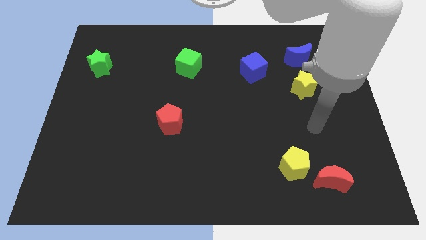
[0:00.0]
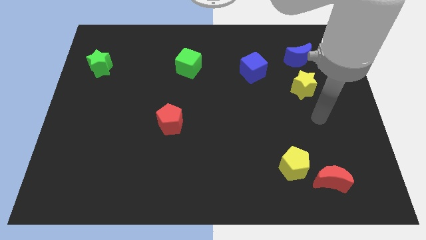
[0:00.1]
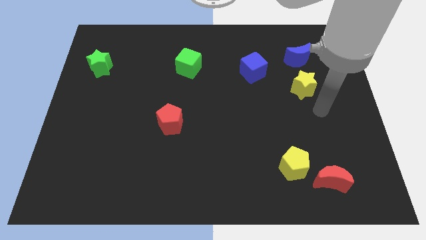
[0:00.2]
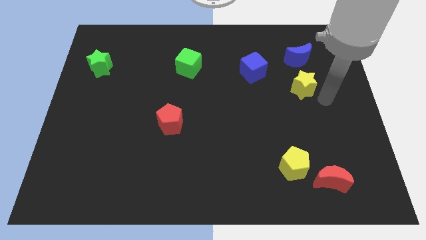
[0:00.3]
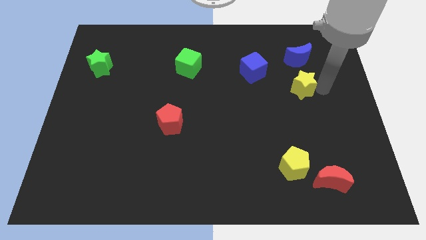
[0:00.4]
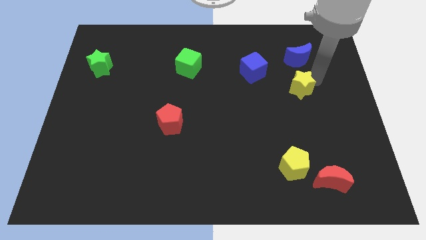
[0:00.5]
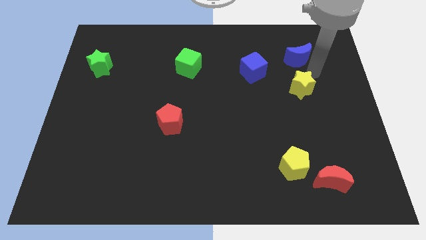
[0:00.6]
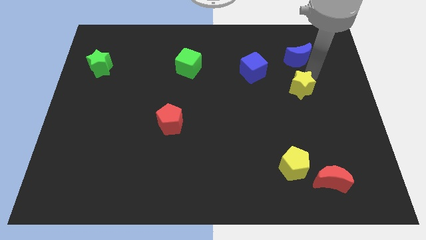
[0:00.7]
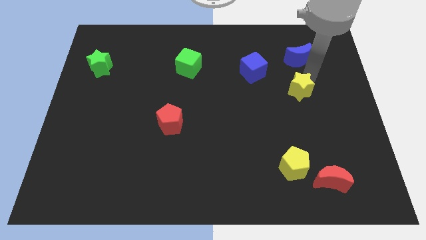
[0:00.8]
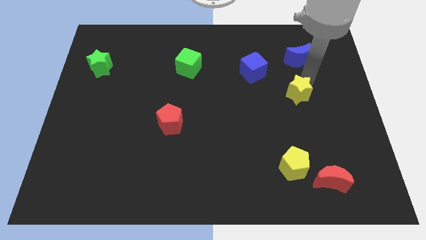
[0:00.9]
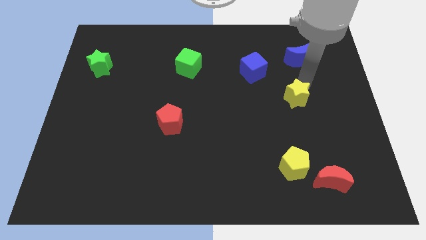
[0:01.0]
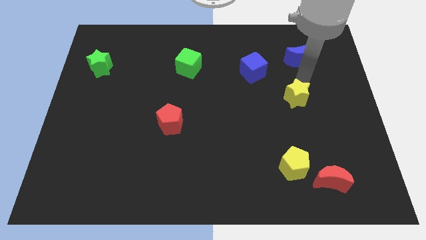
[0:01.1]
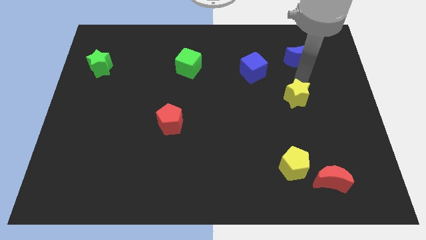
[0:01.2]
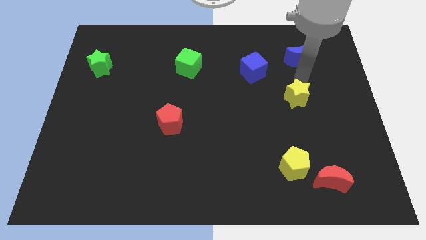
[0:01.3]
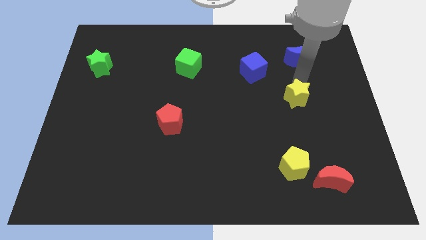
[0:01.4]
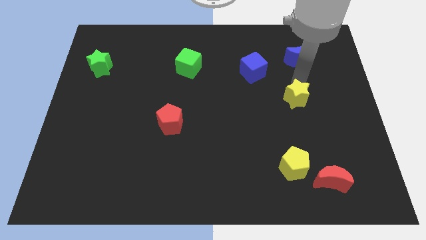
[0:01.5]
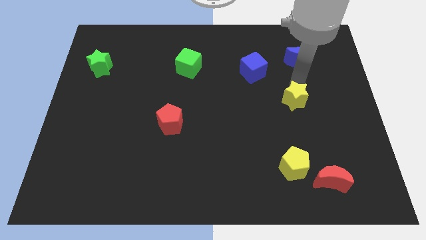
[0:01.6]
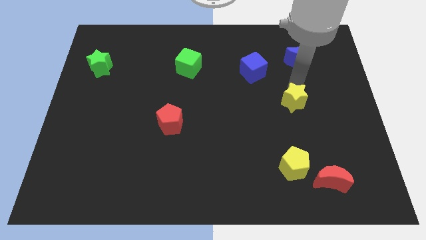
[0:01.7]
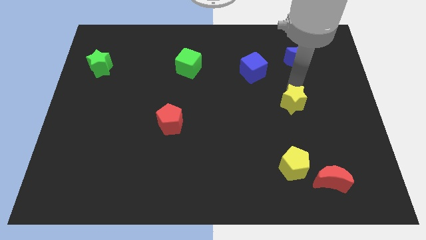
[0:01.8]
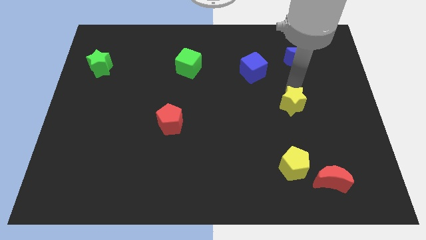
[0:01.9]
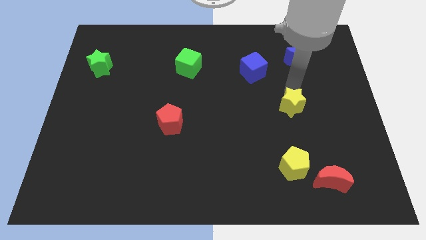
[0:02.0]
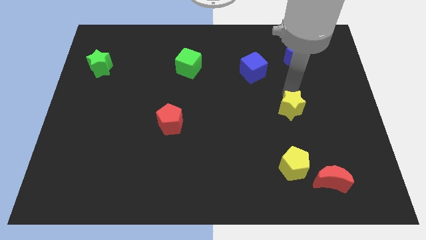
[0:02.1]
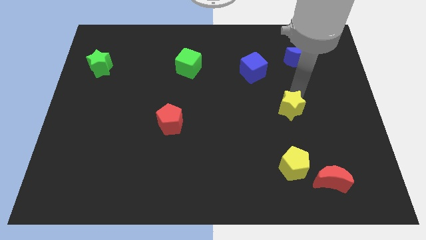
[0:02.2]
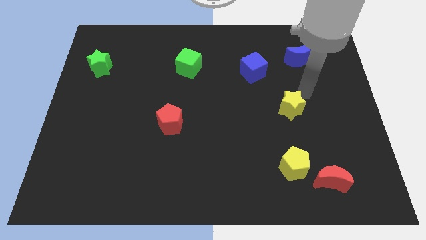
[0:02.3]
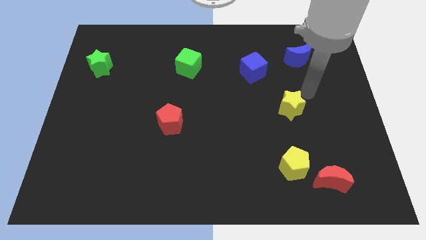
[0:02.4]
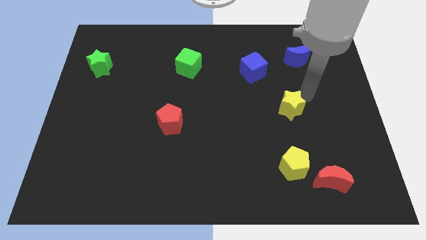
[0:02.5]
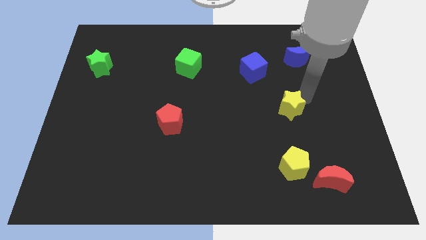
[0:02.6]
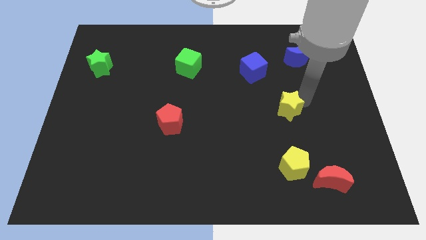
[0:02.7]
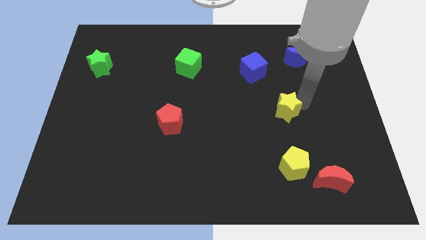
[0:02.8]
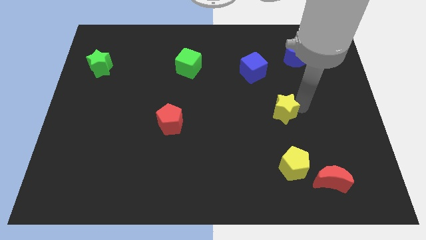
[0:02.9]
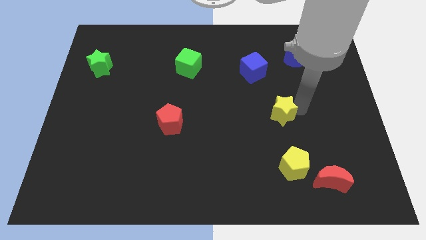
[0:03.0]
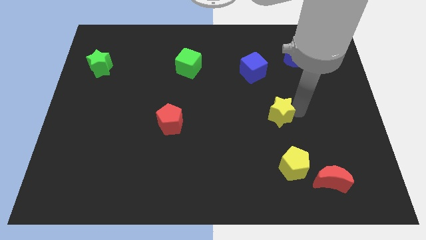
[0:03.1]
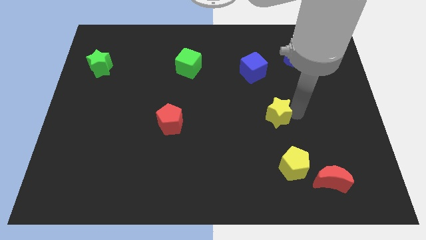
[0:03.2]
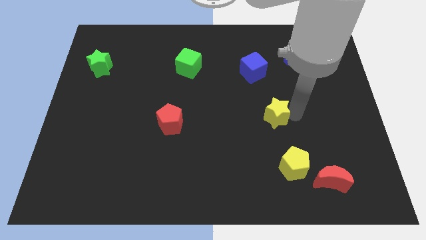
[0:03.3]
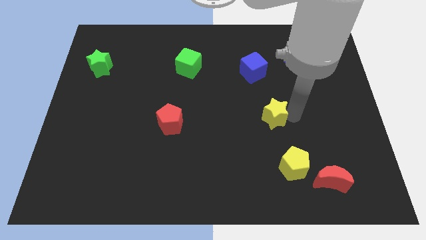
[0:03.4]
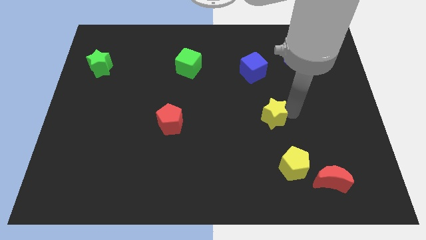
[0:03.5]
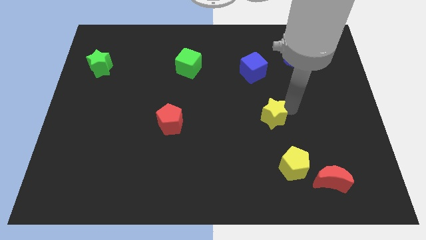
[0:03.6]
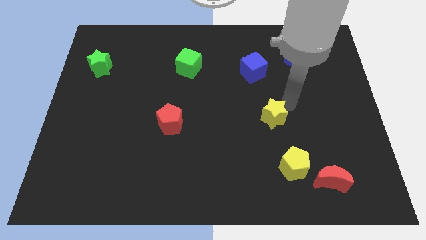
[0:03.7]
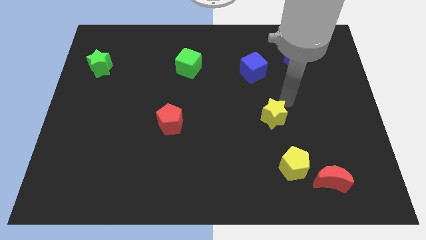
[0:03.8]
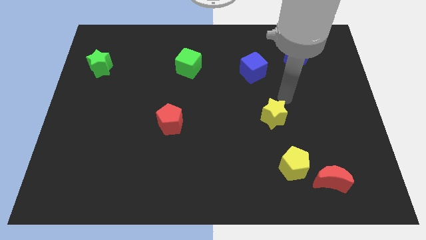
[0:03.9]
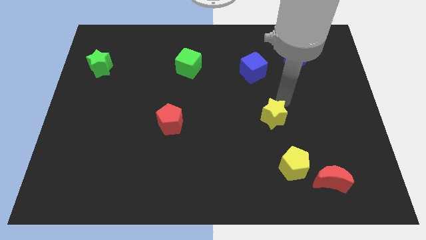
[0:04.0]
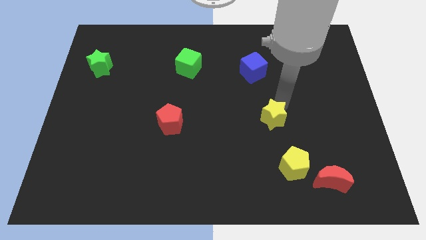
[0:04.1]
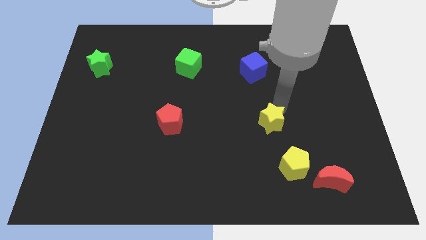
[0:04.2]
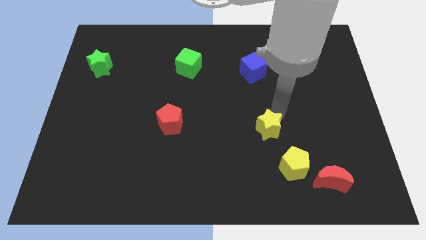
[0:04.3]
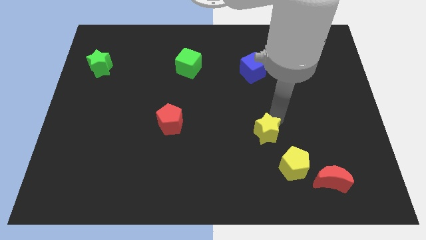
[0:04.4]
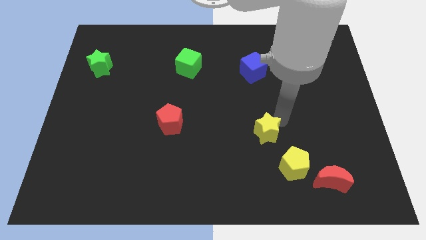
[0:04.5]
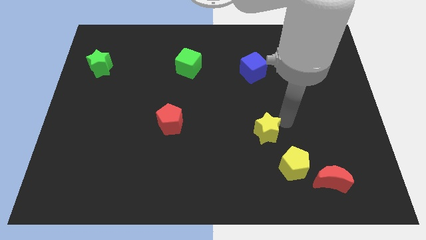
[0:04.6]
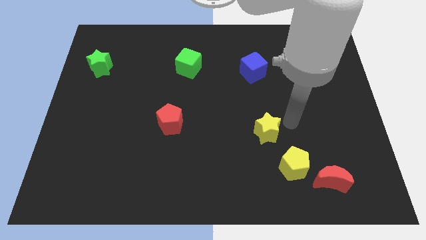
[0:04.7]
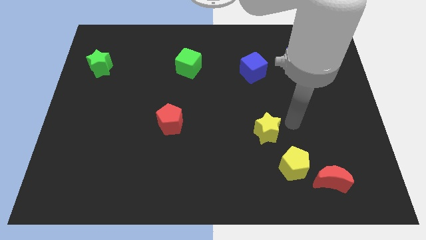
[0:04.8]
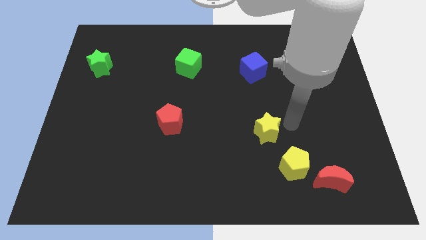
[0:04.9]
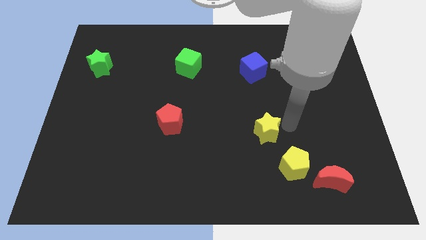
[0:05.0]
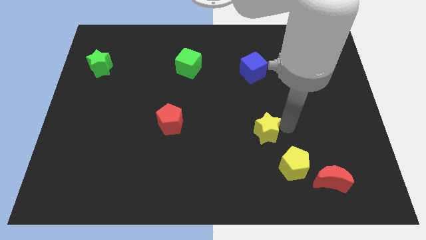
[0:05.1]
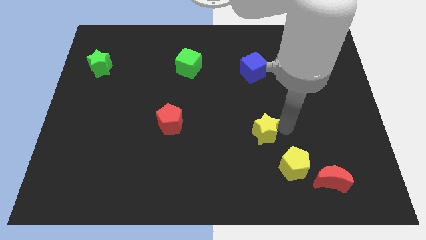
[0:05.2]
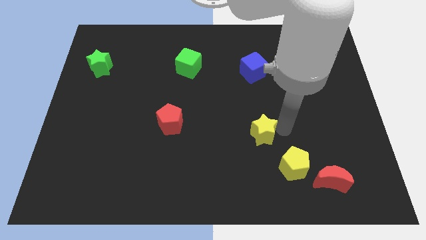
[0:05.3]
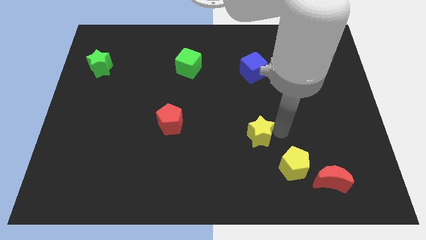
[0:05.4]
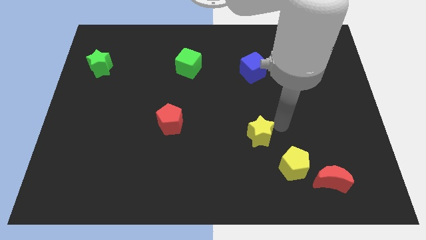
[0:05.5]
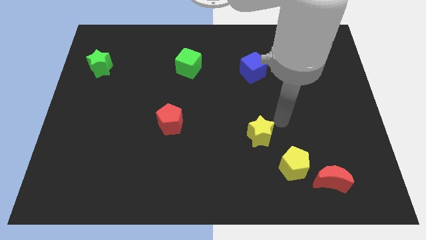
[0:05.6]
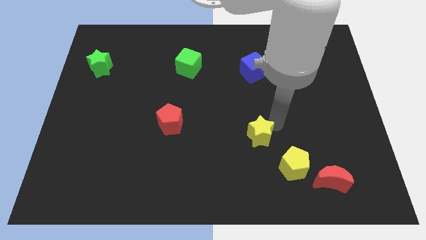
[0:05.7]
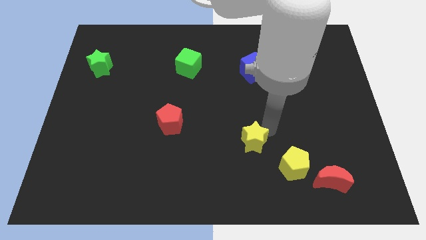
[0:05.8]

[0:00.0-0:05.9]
slide the yellow star down and left

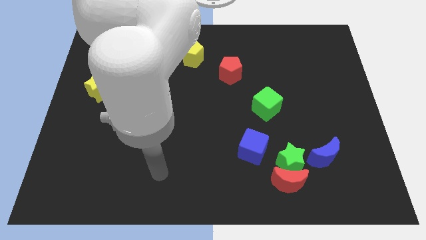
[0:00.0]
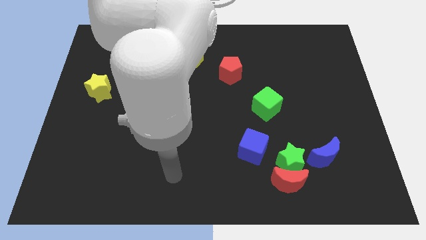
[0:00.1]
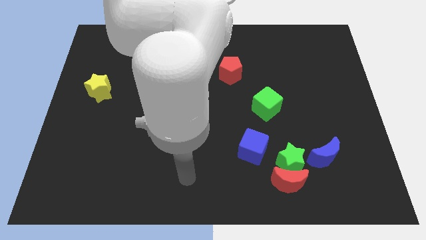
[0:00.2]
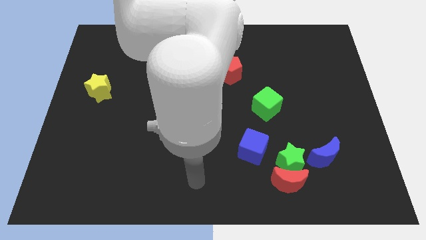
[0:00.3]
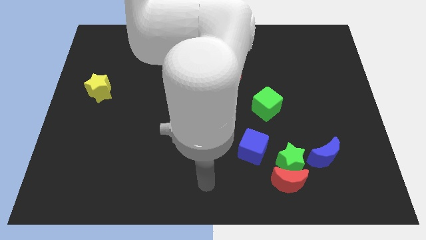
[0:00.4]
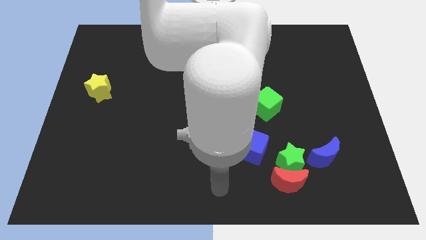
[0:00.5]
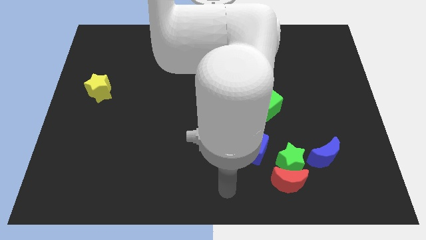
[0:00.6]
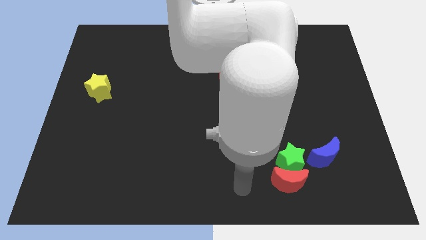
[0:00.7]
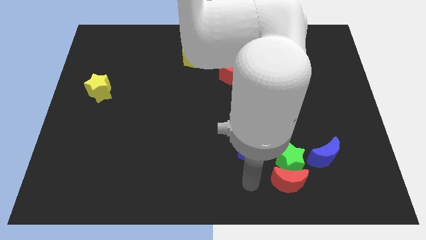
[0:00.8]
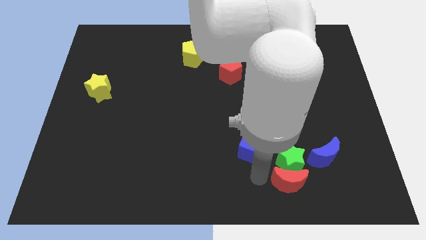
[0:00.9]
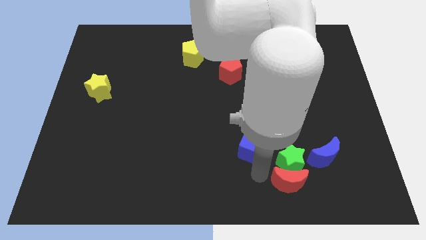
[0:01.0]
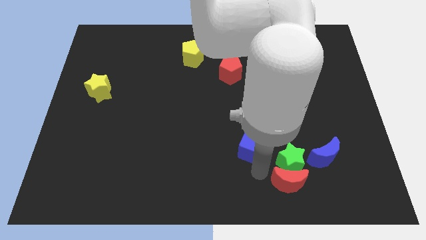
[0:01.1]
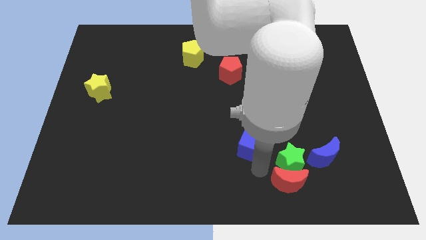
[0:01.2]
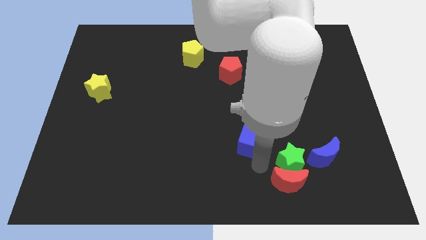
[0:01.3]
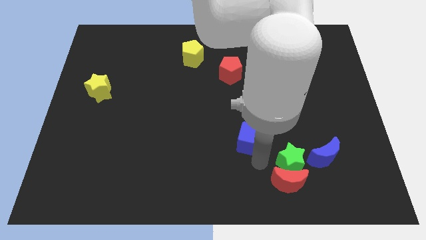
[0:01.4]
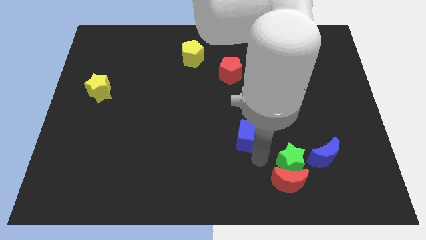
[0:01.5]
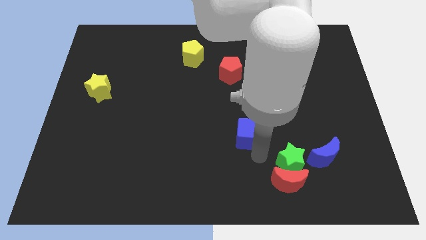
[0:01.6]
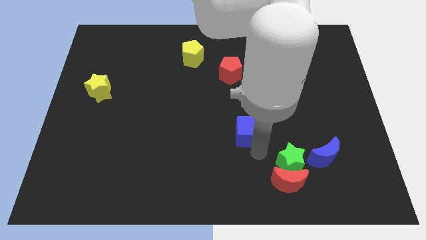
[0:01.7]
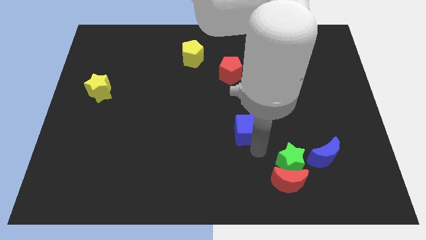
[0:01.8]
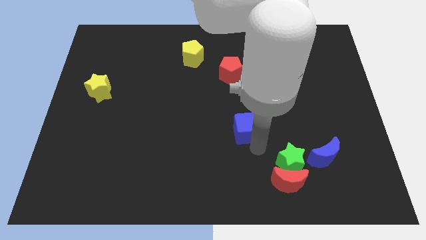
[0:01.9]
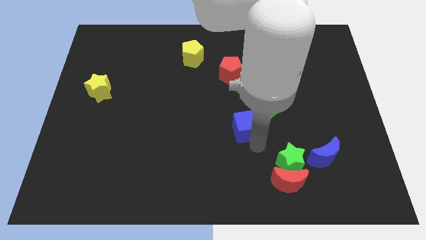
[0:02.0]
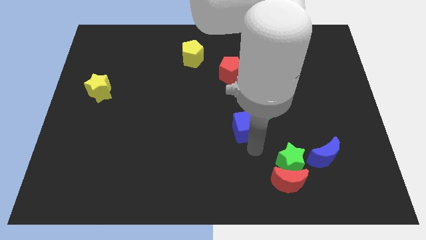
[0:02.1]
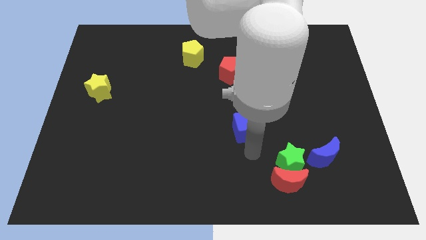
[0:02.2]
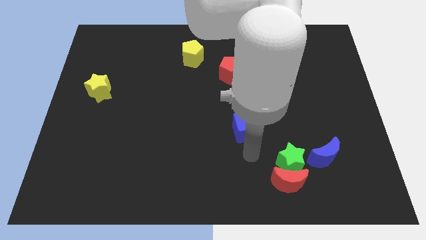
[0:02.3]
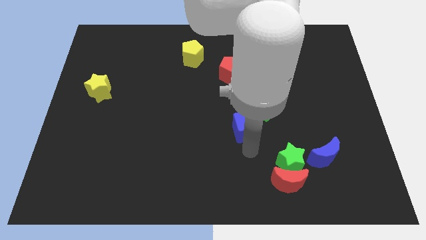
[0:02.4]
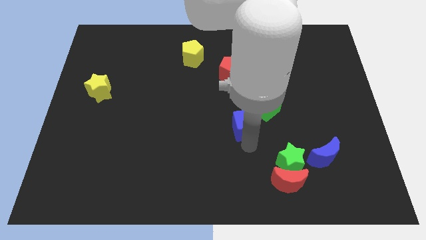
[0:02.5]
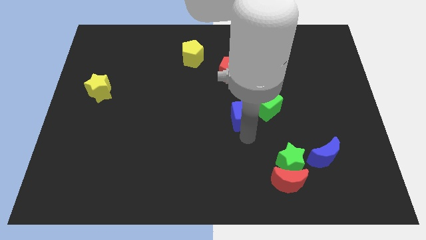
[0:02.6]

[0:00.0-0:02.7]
move the blue cube a little up
